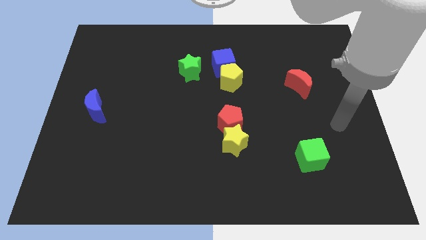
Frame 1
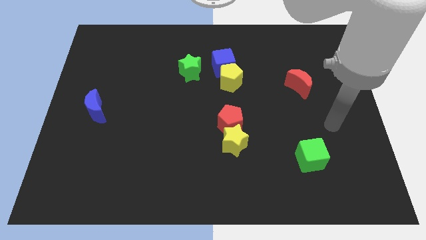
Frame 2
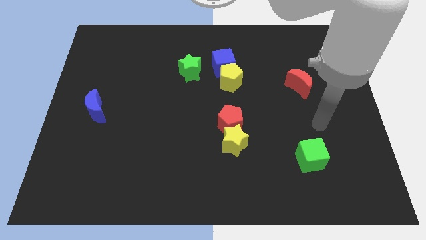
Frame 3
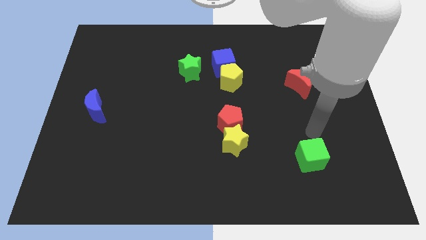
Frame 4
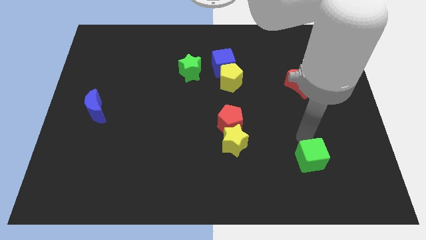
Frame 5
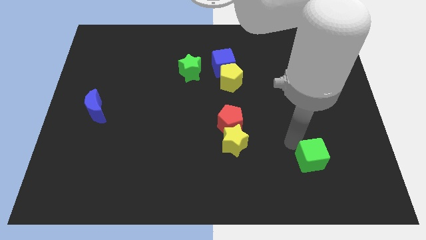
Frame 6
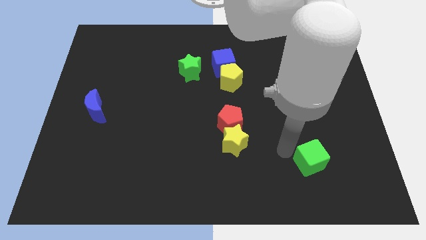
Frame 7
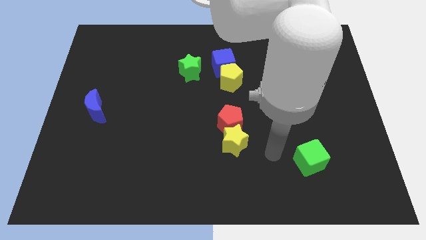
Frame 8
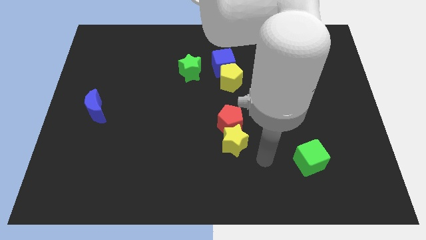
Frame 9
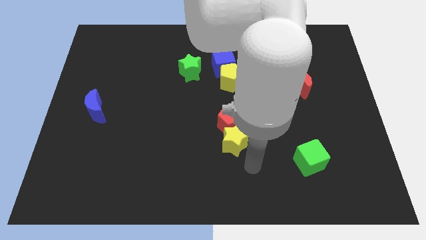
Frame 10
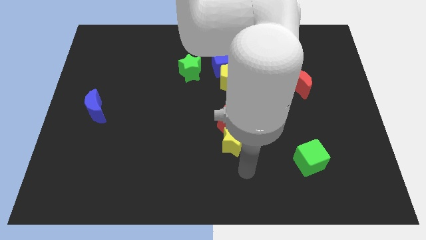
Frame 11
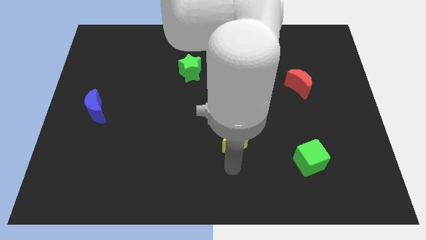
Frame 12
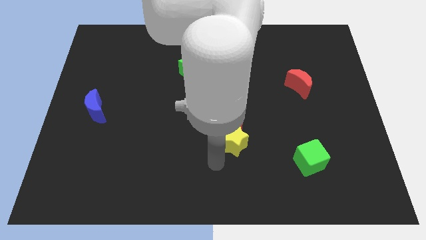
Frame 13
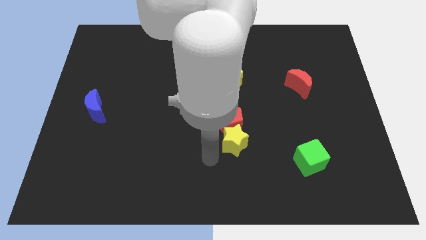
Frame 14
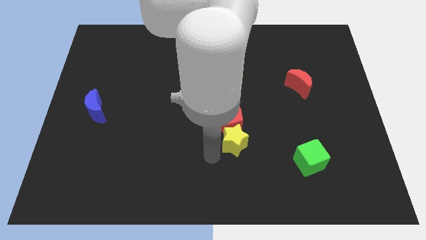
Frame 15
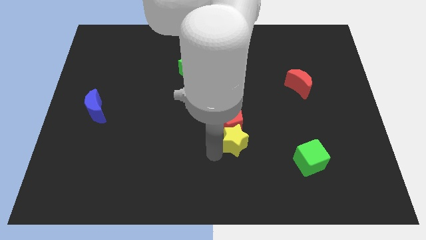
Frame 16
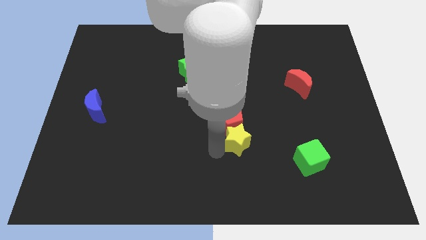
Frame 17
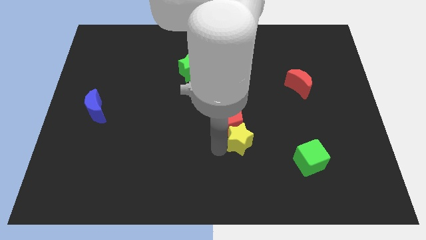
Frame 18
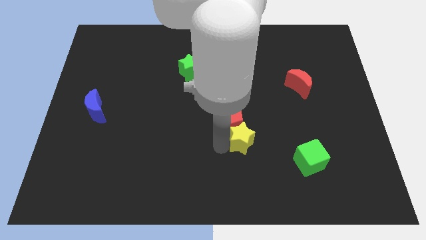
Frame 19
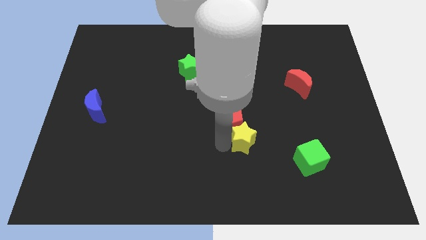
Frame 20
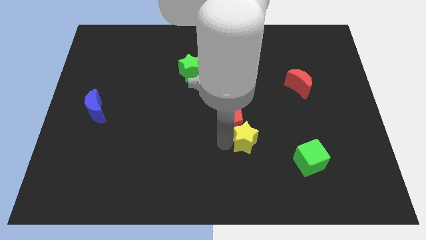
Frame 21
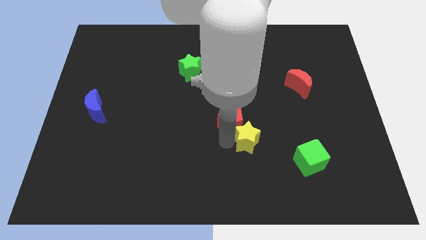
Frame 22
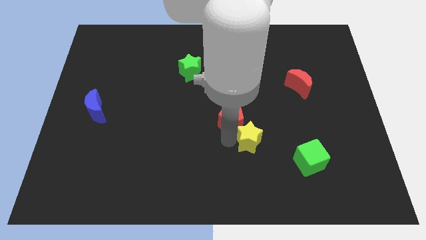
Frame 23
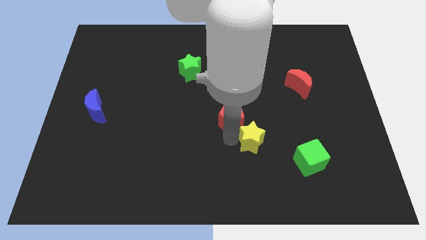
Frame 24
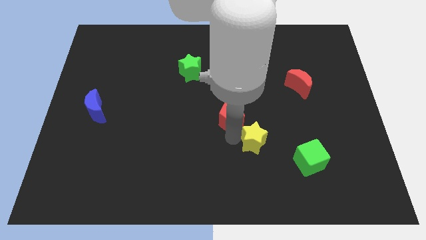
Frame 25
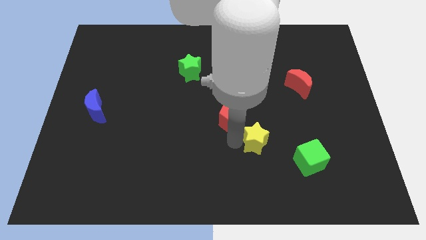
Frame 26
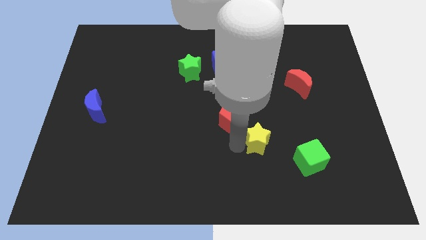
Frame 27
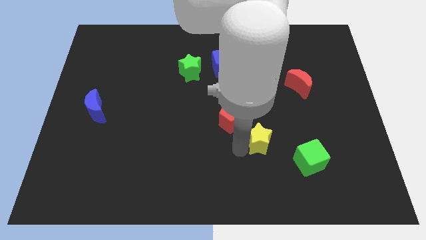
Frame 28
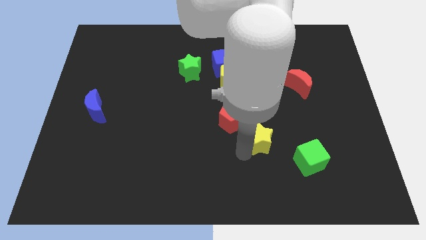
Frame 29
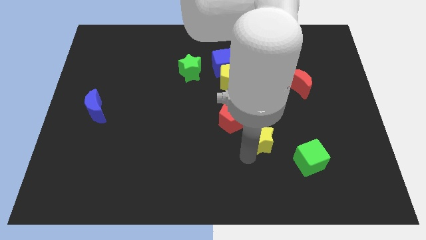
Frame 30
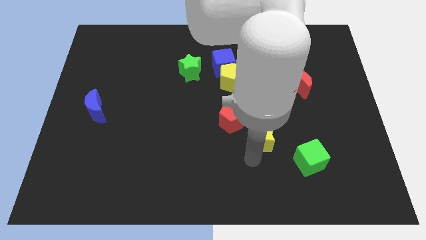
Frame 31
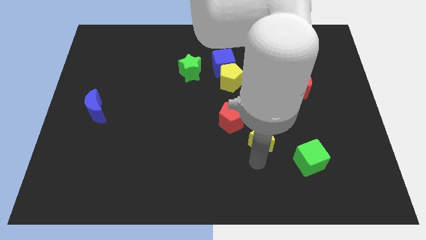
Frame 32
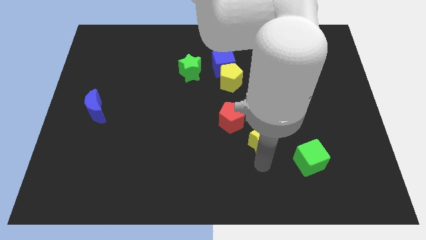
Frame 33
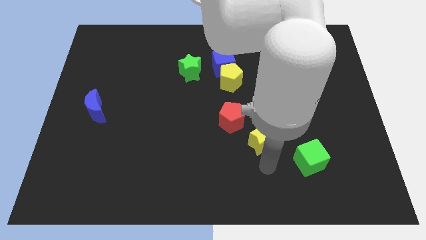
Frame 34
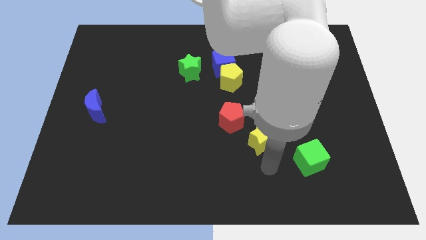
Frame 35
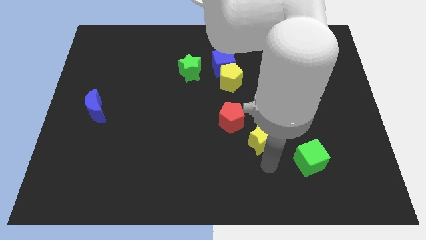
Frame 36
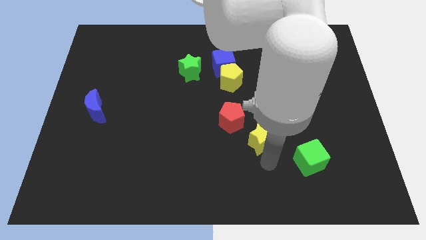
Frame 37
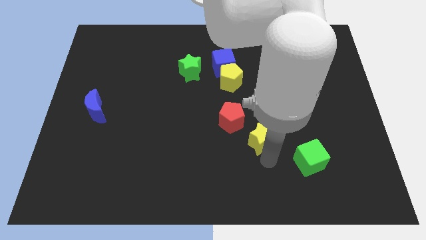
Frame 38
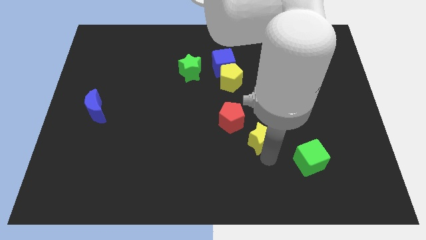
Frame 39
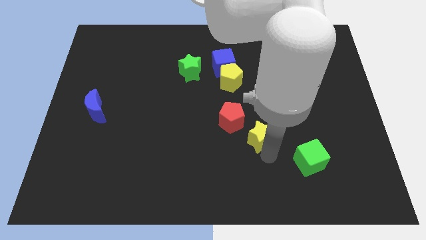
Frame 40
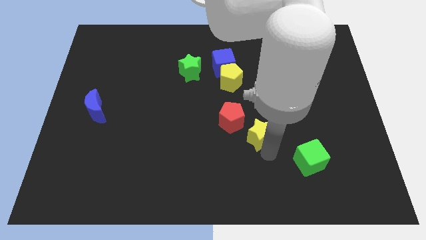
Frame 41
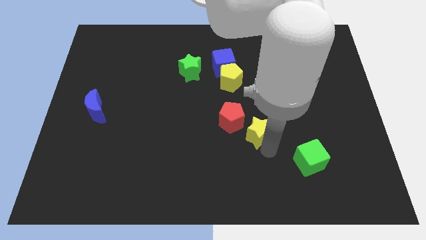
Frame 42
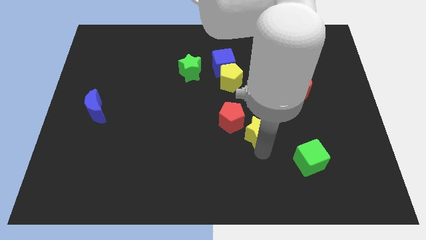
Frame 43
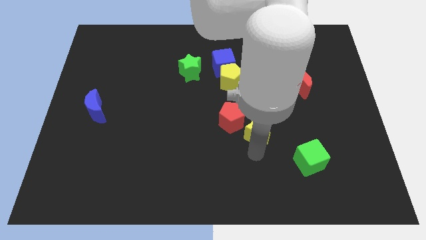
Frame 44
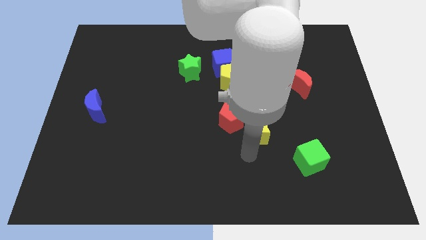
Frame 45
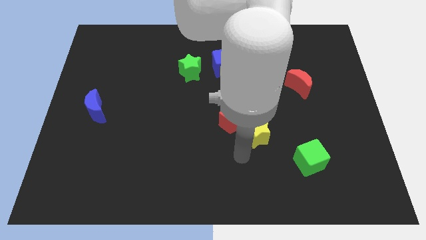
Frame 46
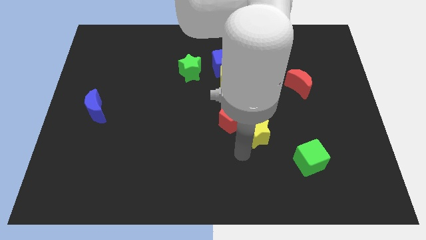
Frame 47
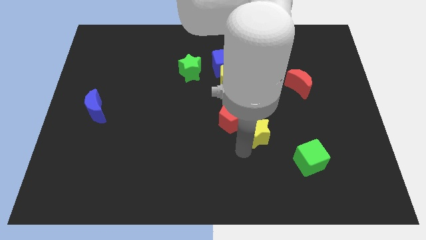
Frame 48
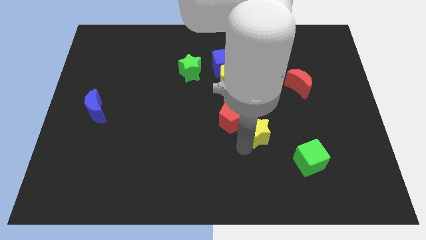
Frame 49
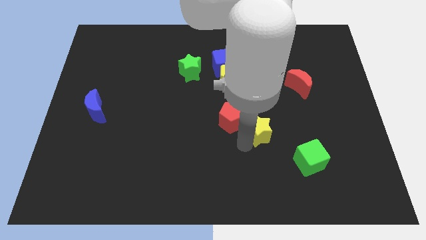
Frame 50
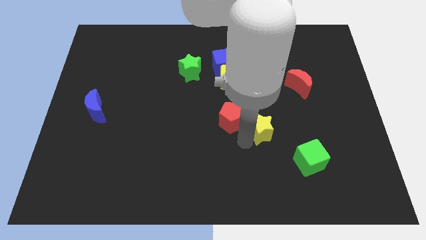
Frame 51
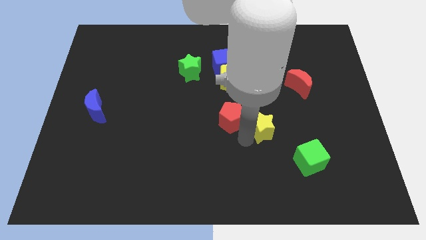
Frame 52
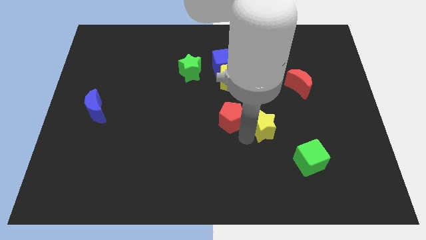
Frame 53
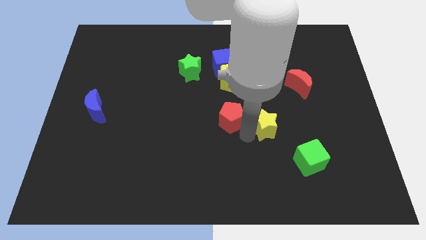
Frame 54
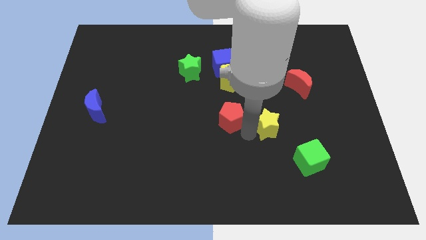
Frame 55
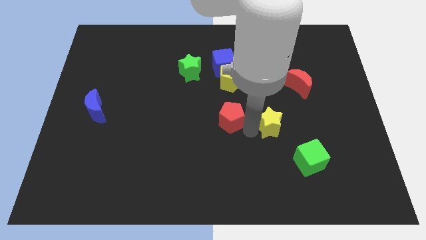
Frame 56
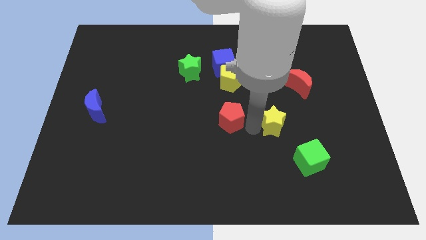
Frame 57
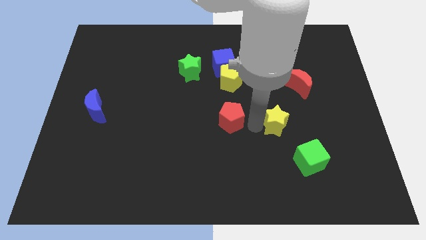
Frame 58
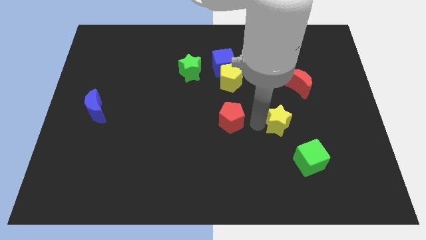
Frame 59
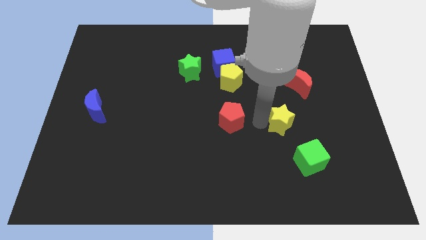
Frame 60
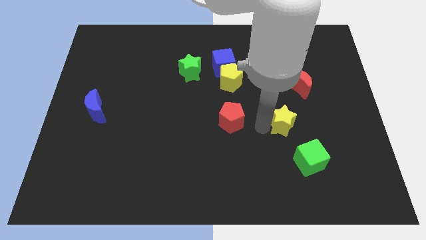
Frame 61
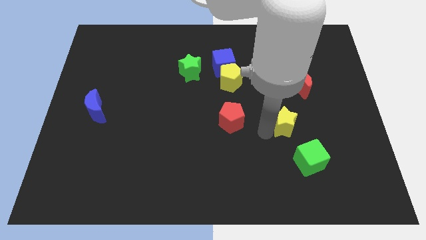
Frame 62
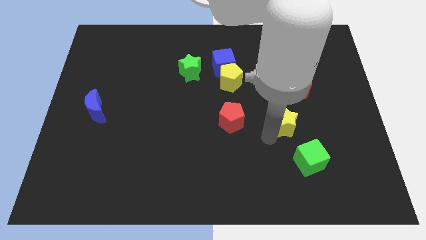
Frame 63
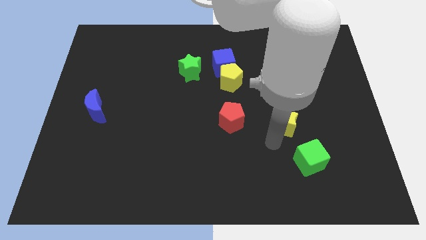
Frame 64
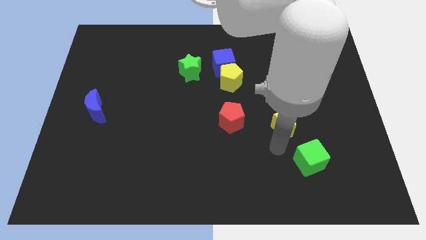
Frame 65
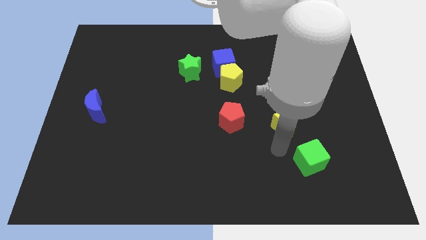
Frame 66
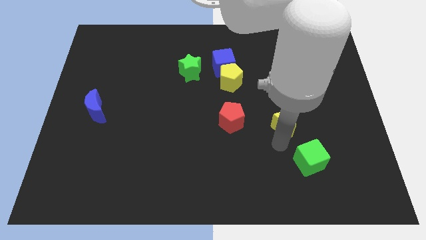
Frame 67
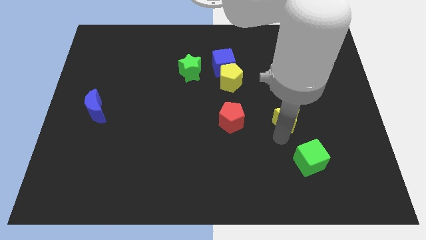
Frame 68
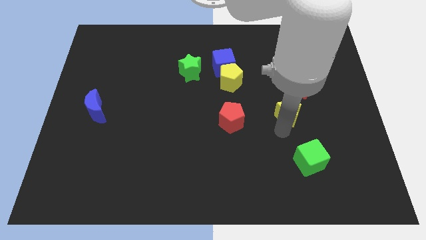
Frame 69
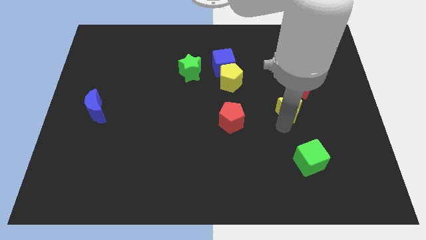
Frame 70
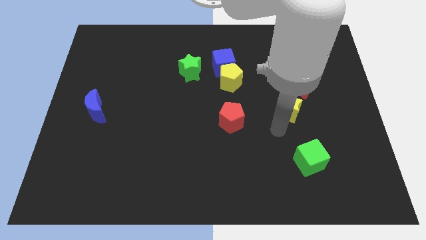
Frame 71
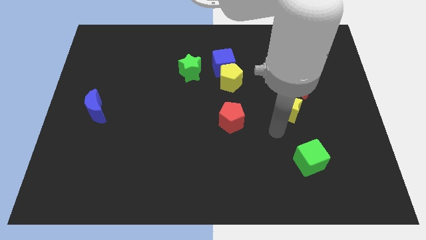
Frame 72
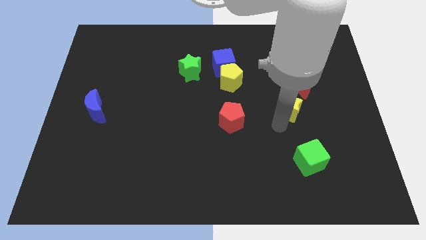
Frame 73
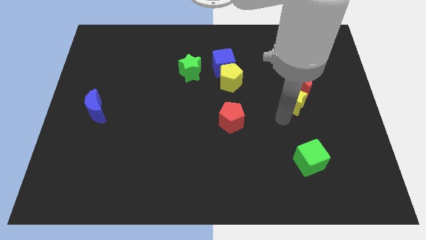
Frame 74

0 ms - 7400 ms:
put the yellow star close to the red moon
